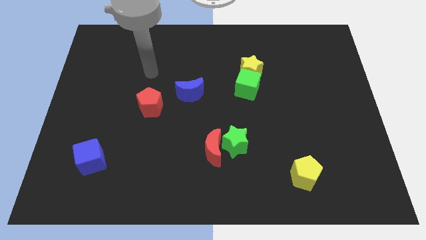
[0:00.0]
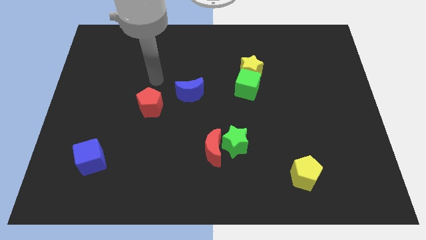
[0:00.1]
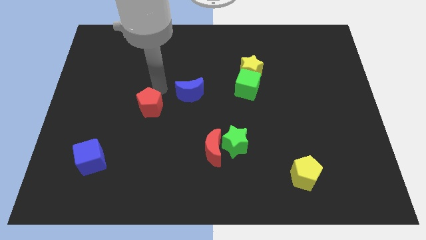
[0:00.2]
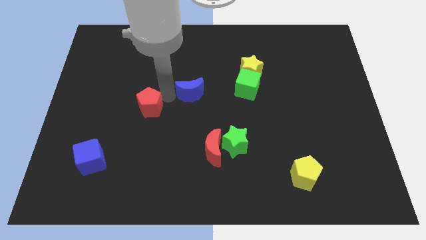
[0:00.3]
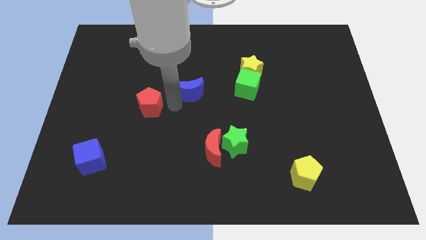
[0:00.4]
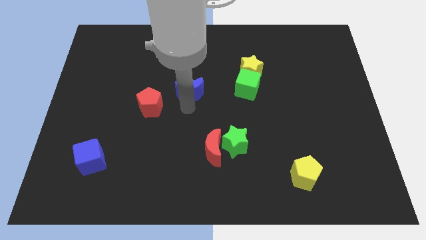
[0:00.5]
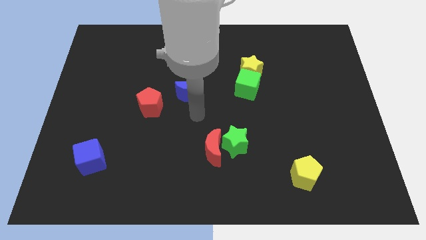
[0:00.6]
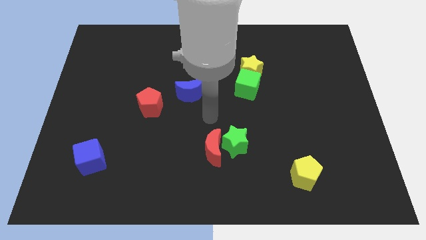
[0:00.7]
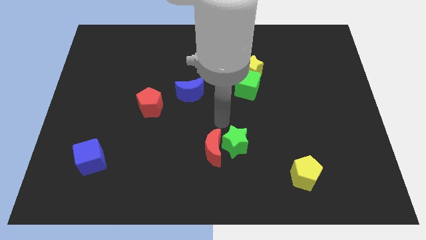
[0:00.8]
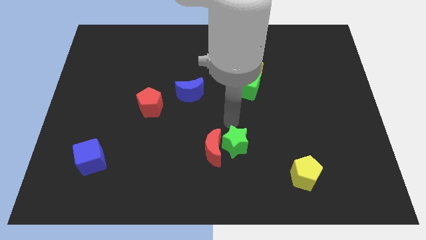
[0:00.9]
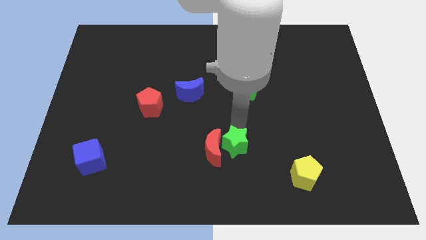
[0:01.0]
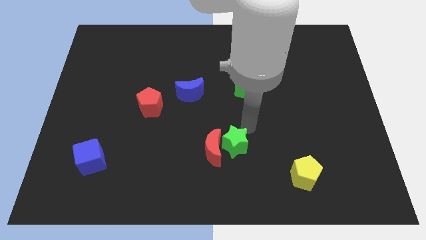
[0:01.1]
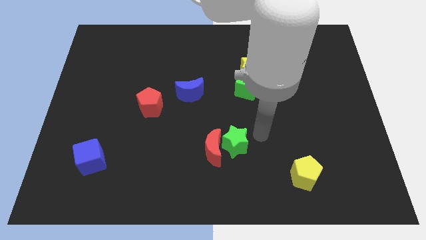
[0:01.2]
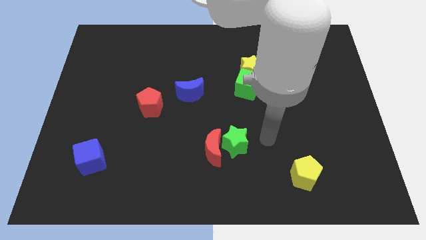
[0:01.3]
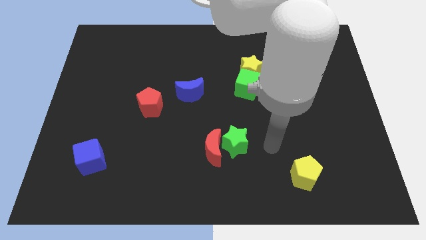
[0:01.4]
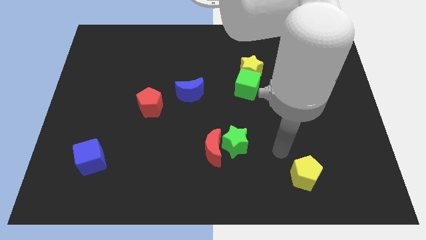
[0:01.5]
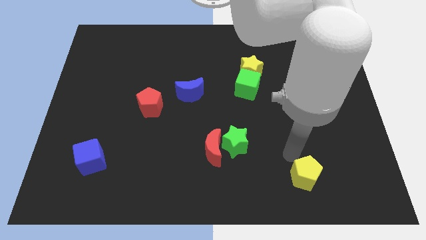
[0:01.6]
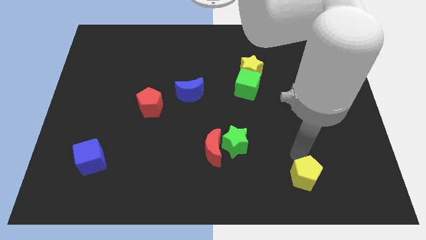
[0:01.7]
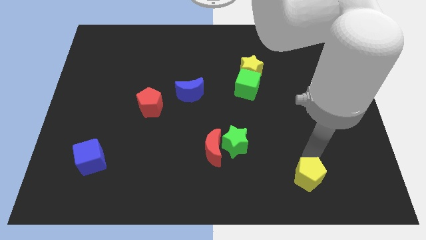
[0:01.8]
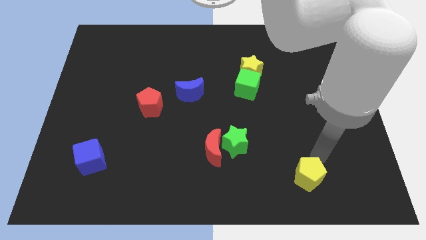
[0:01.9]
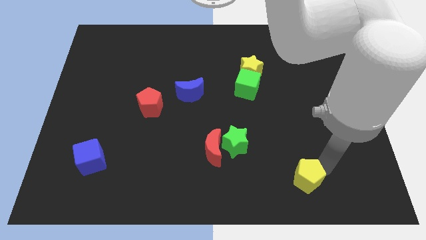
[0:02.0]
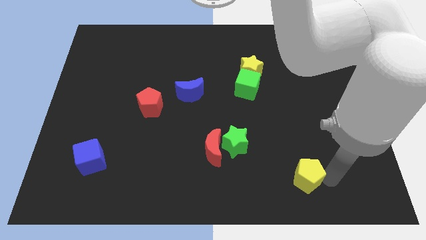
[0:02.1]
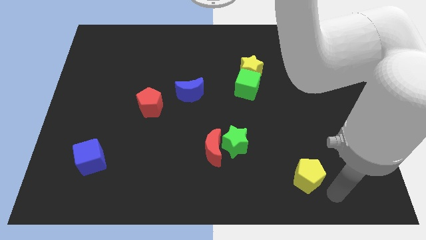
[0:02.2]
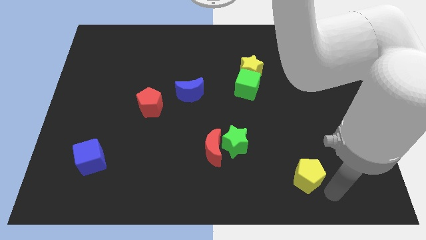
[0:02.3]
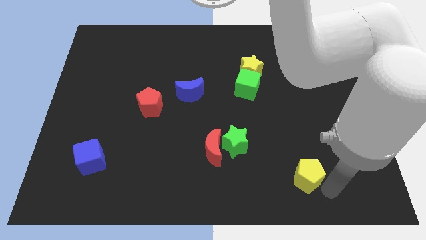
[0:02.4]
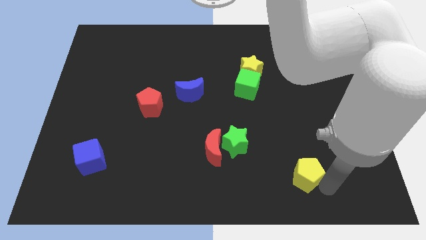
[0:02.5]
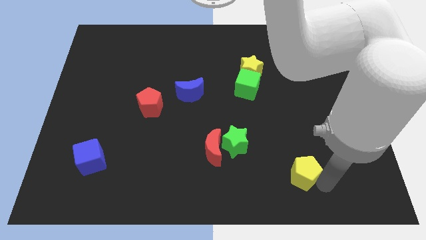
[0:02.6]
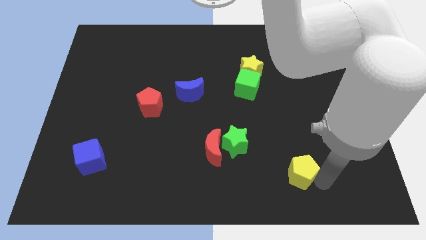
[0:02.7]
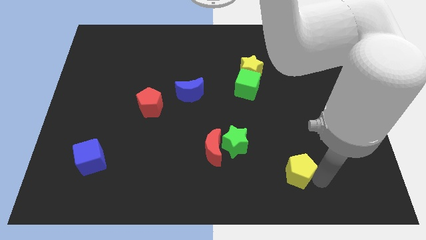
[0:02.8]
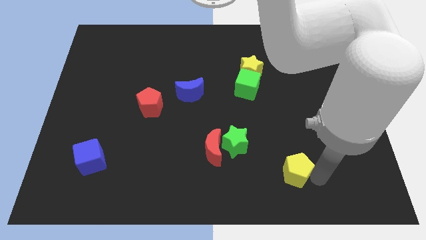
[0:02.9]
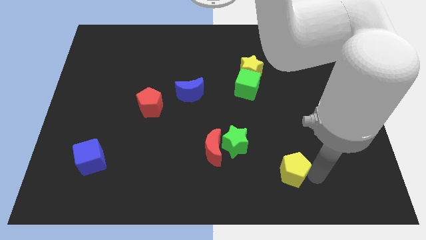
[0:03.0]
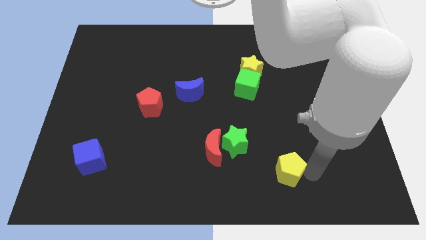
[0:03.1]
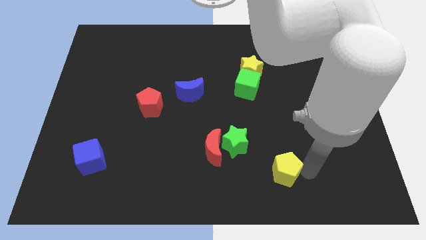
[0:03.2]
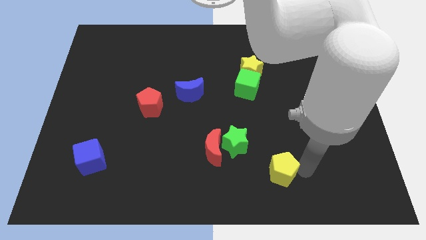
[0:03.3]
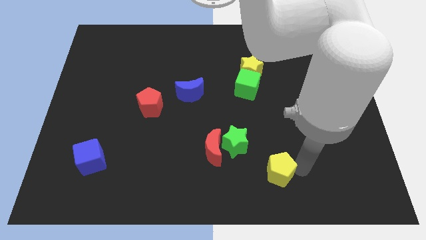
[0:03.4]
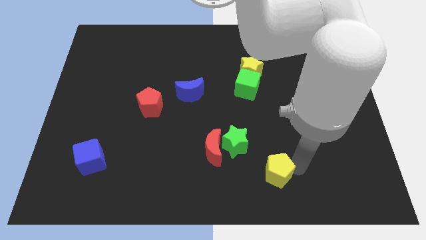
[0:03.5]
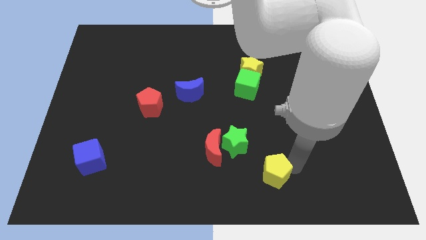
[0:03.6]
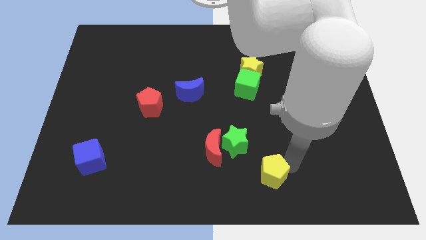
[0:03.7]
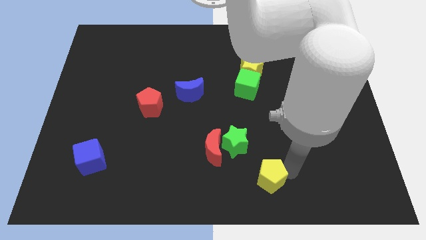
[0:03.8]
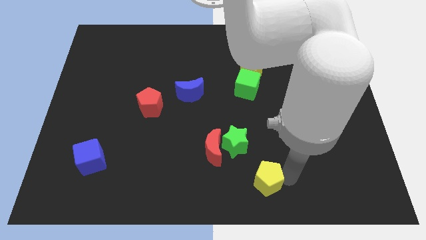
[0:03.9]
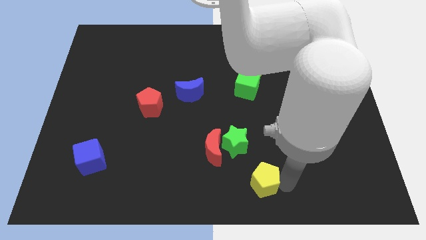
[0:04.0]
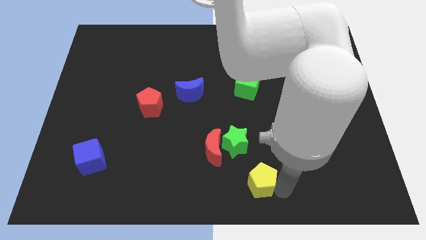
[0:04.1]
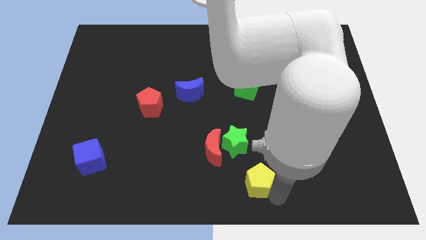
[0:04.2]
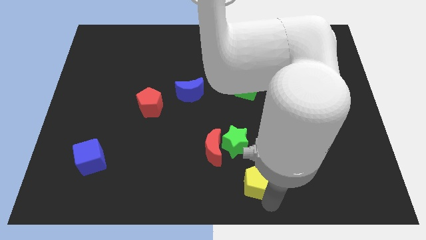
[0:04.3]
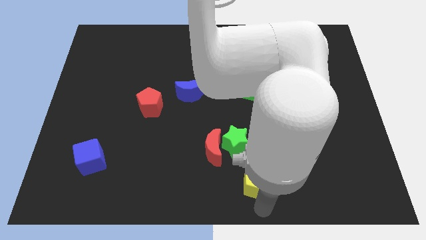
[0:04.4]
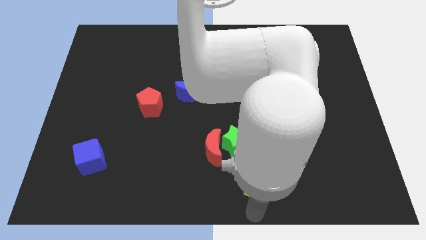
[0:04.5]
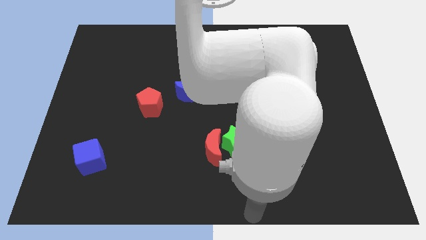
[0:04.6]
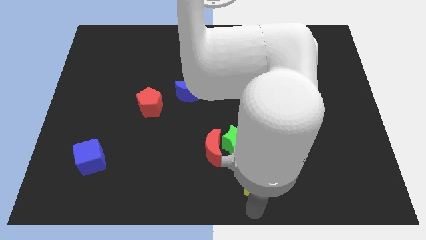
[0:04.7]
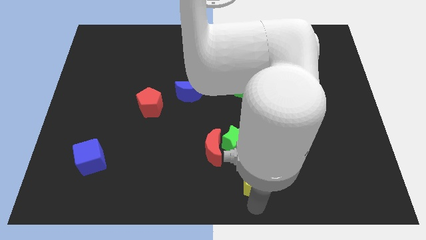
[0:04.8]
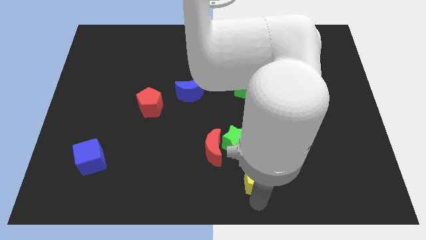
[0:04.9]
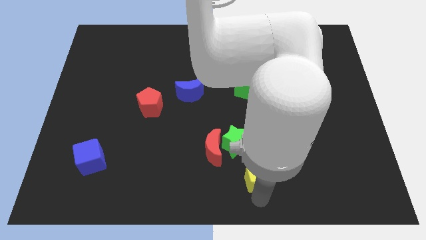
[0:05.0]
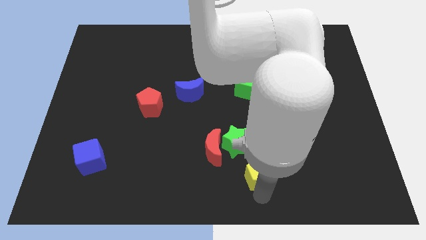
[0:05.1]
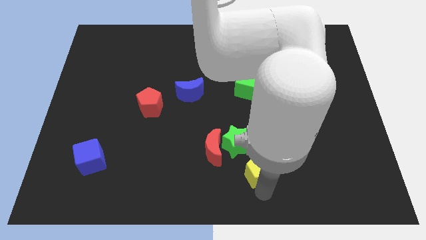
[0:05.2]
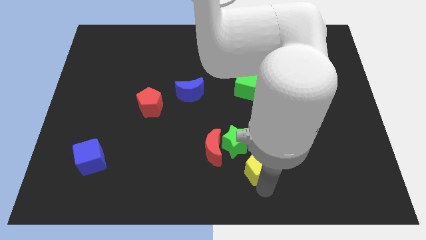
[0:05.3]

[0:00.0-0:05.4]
move the yellow pentagon to the right of the red moon

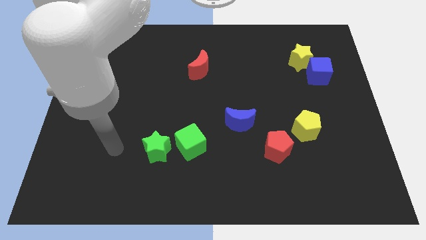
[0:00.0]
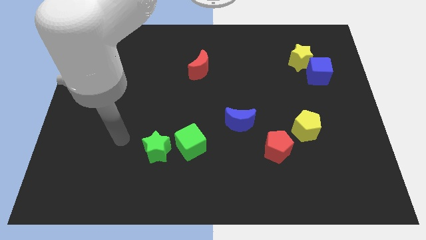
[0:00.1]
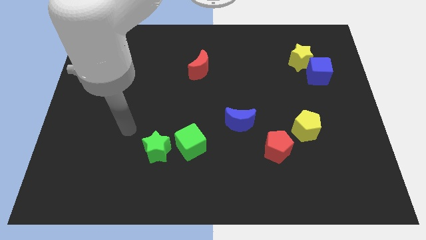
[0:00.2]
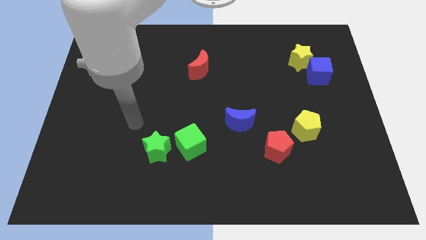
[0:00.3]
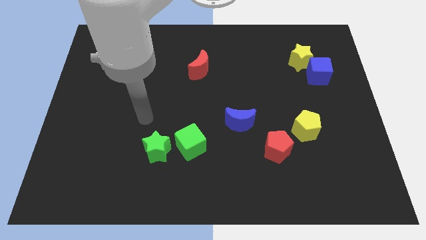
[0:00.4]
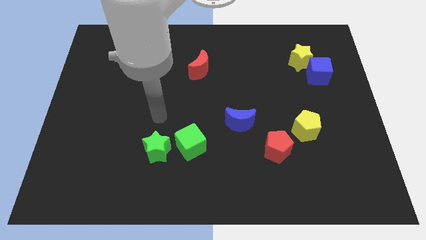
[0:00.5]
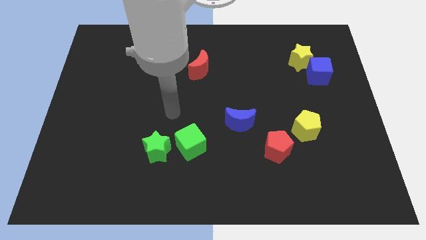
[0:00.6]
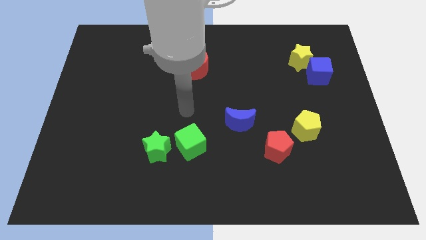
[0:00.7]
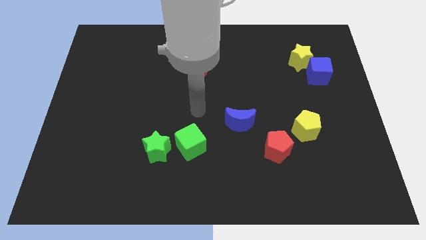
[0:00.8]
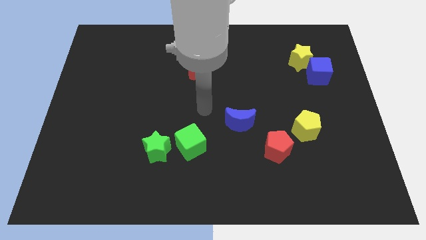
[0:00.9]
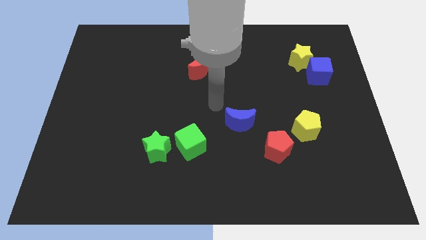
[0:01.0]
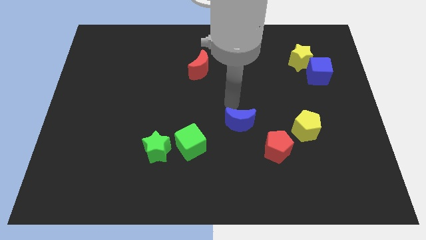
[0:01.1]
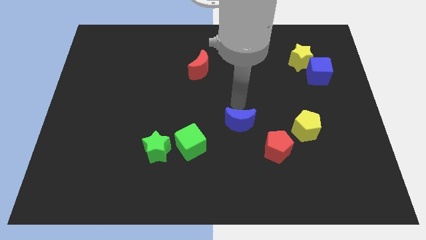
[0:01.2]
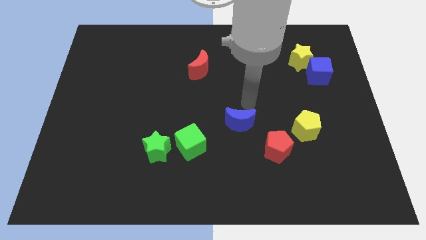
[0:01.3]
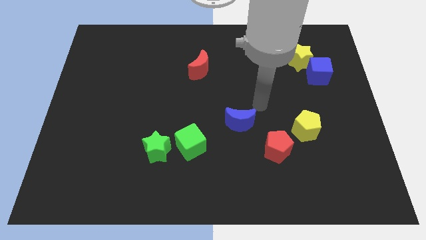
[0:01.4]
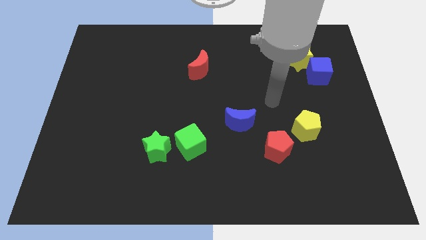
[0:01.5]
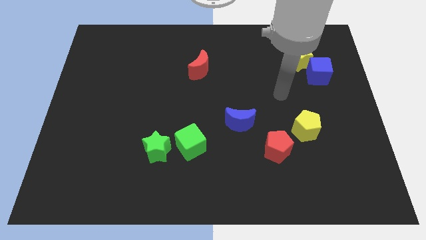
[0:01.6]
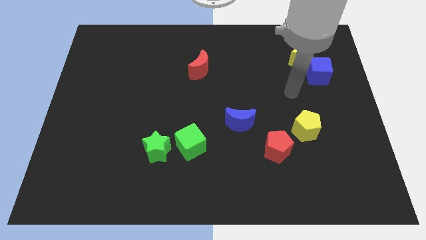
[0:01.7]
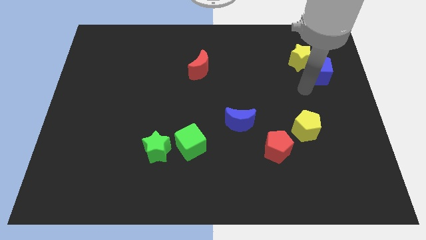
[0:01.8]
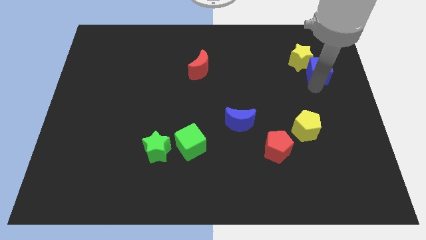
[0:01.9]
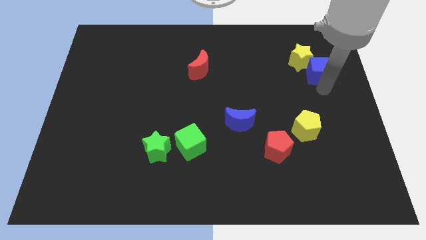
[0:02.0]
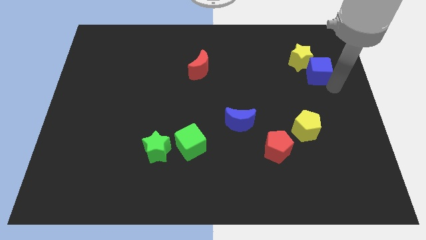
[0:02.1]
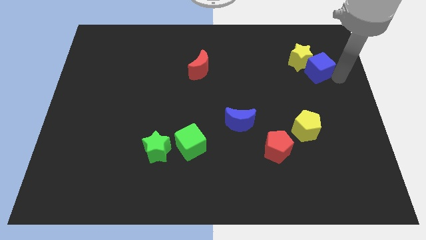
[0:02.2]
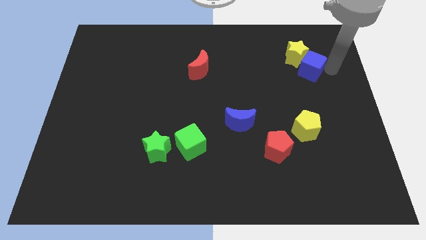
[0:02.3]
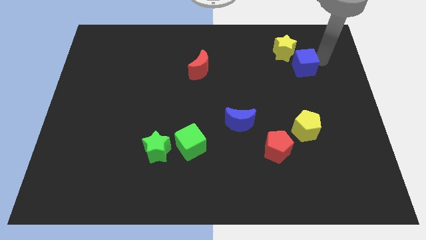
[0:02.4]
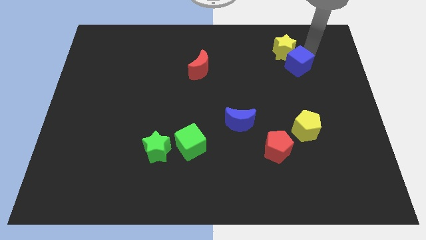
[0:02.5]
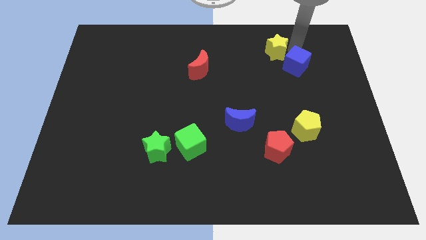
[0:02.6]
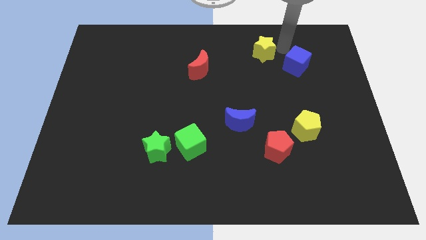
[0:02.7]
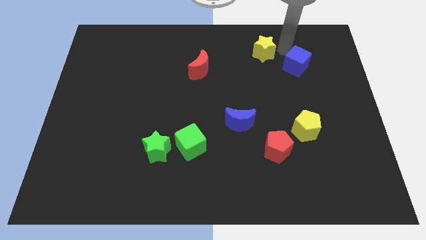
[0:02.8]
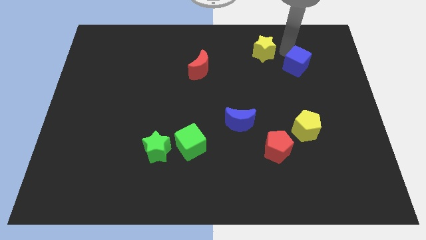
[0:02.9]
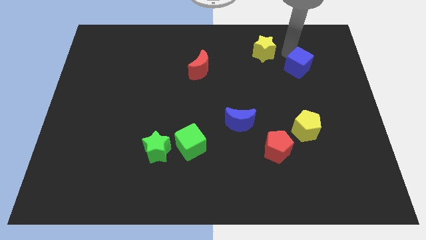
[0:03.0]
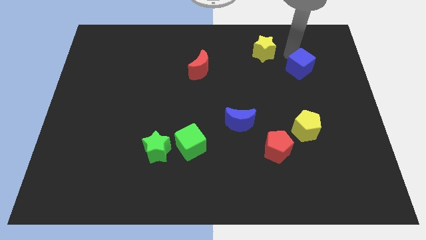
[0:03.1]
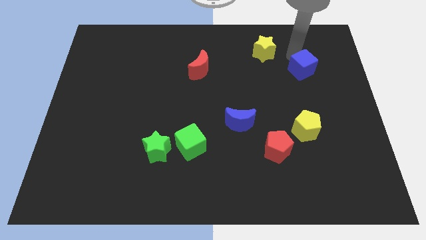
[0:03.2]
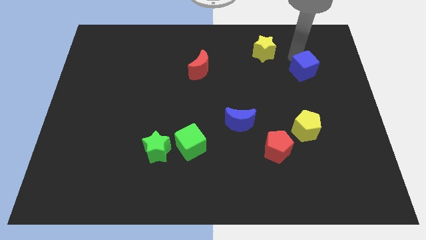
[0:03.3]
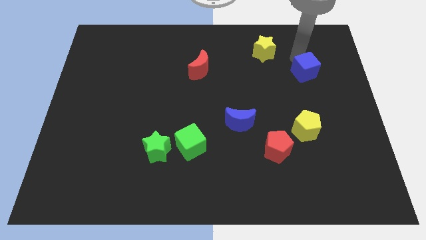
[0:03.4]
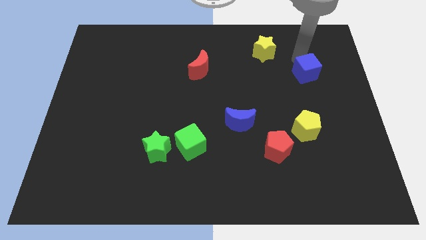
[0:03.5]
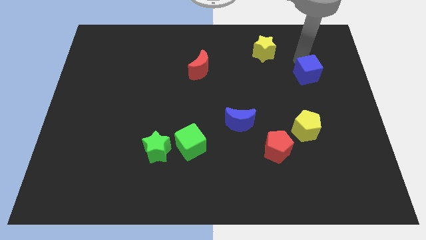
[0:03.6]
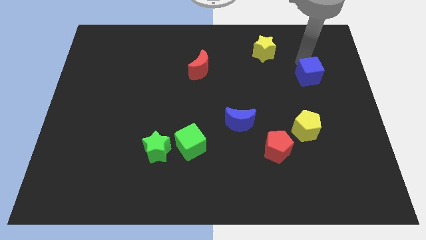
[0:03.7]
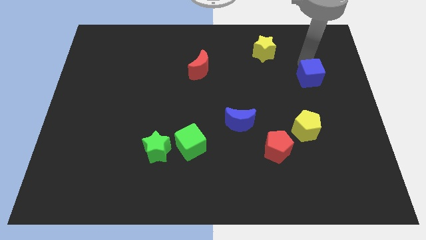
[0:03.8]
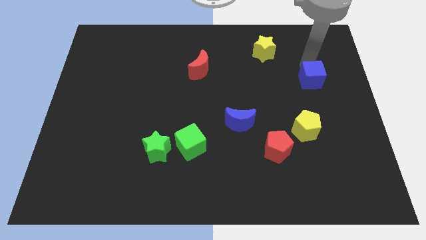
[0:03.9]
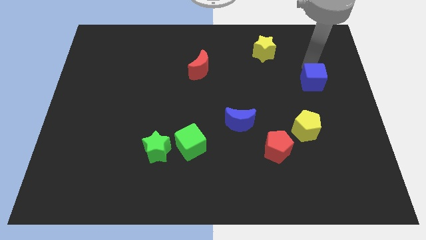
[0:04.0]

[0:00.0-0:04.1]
put the blue cube above the yellow pentagon
